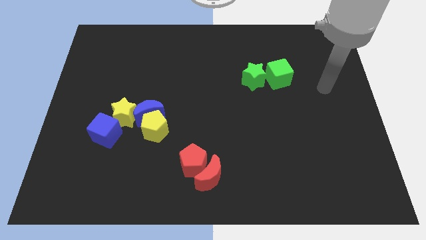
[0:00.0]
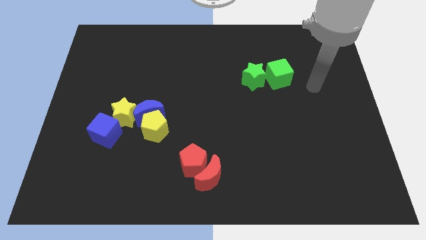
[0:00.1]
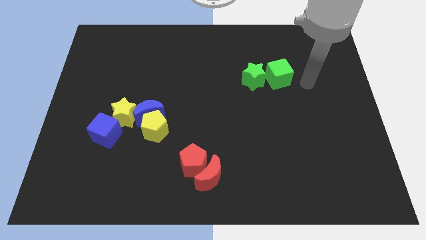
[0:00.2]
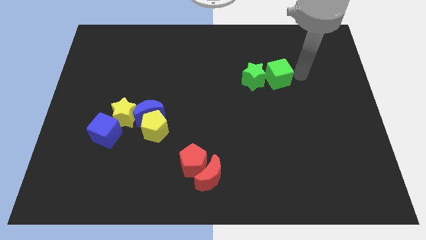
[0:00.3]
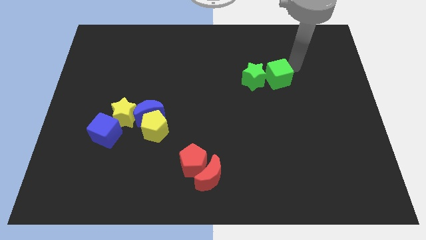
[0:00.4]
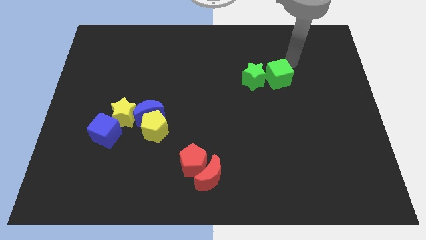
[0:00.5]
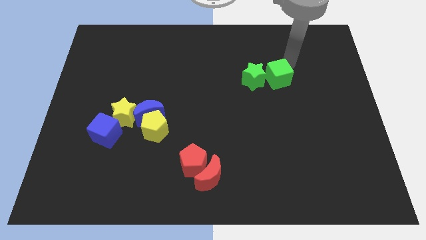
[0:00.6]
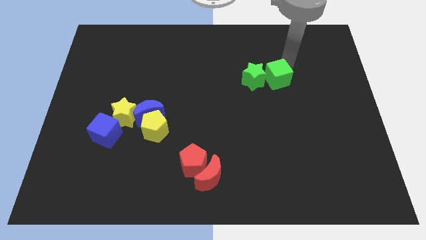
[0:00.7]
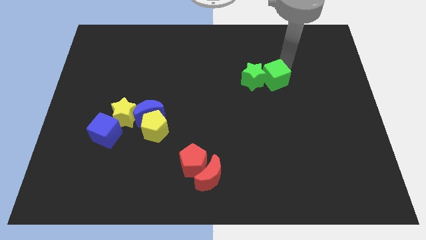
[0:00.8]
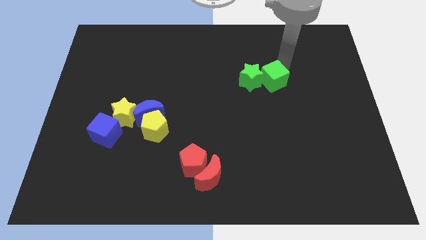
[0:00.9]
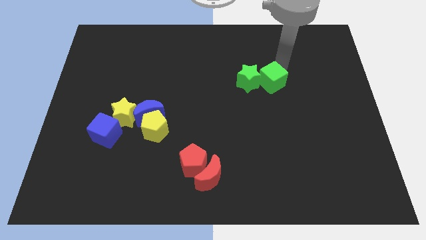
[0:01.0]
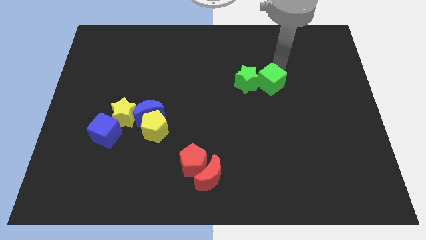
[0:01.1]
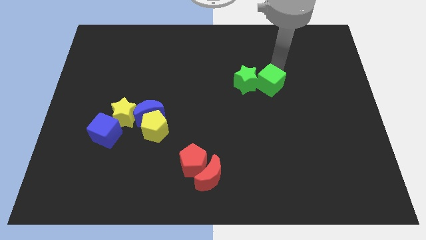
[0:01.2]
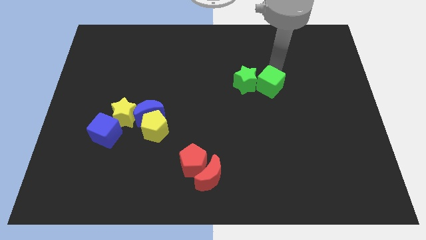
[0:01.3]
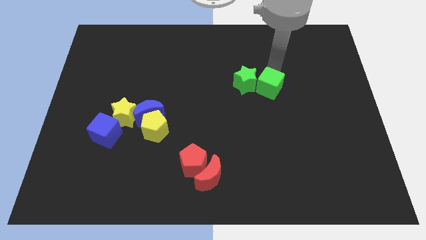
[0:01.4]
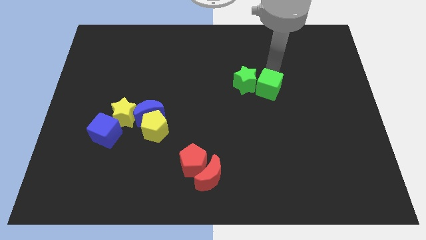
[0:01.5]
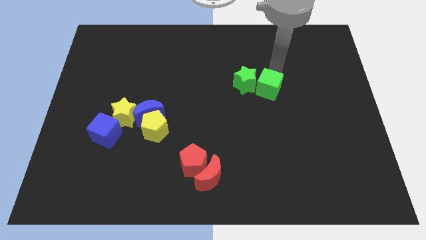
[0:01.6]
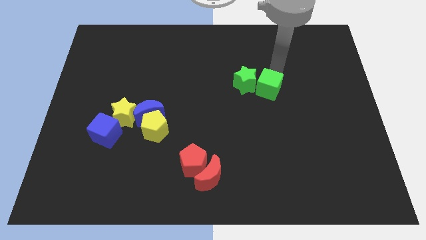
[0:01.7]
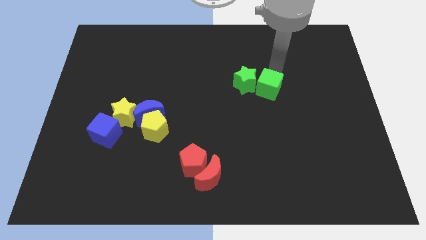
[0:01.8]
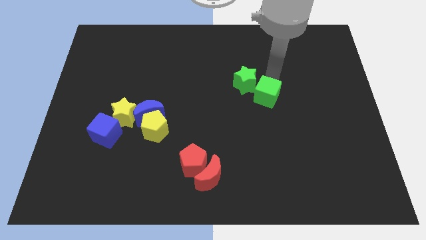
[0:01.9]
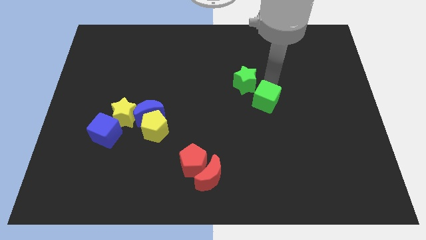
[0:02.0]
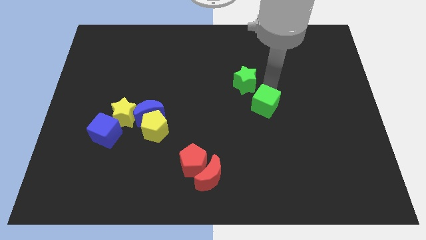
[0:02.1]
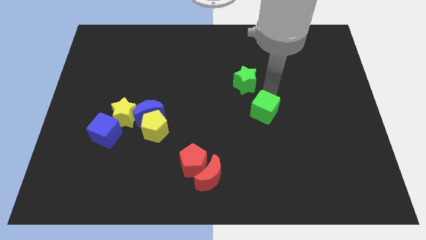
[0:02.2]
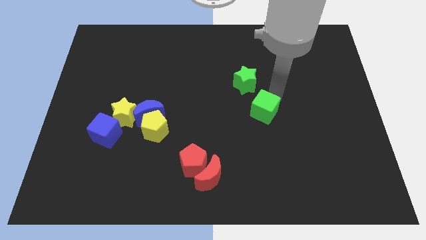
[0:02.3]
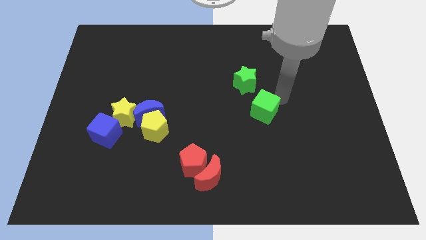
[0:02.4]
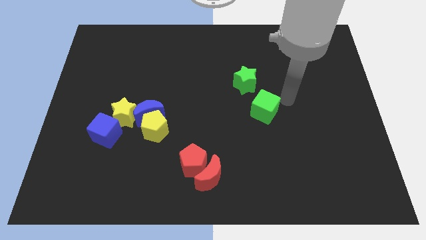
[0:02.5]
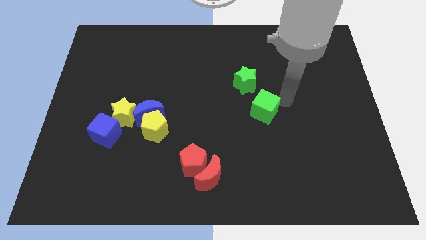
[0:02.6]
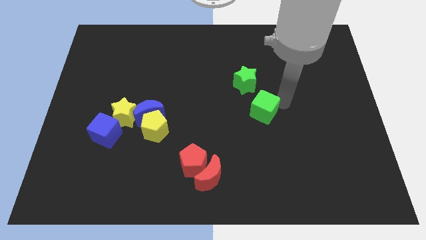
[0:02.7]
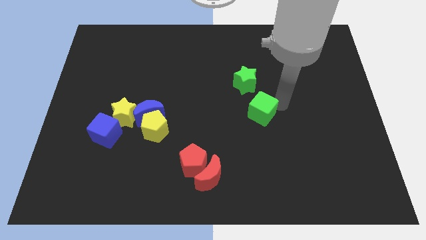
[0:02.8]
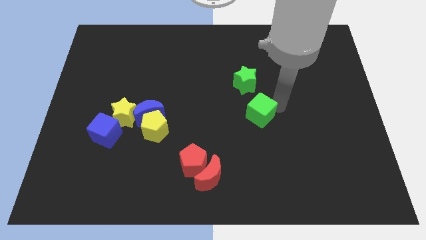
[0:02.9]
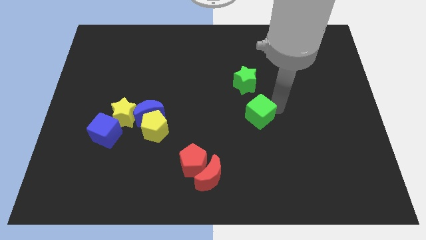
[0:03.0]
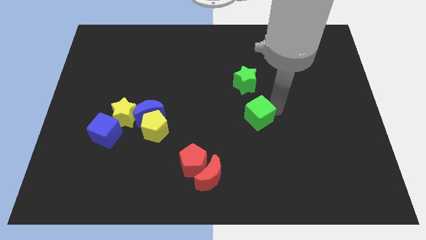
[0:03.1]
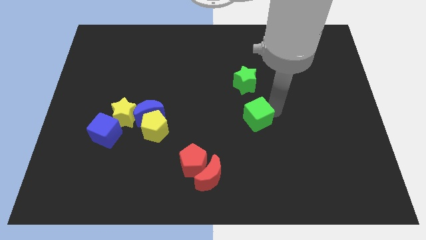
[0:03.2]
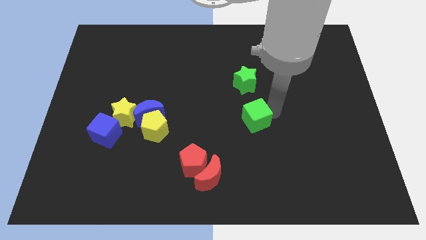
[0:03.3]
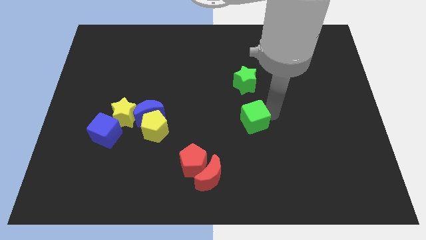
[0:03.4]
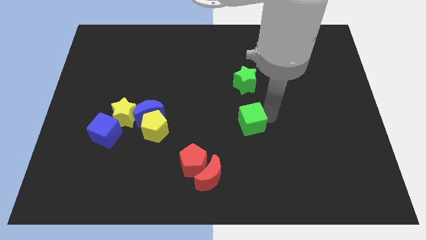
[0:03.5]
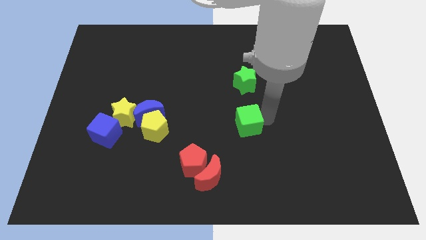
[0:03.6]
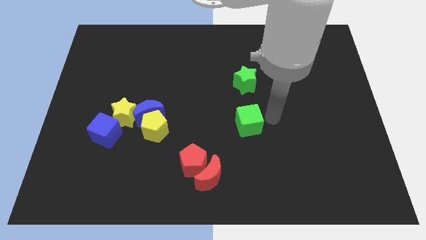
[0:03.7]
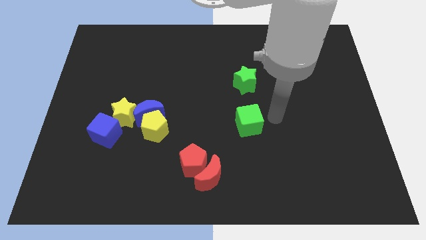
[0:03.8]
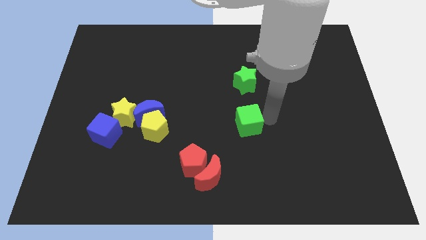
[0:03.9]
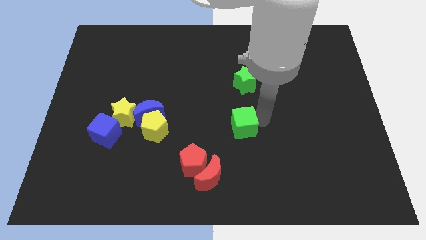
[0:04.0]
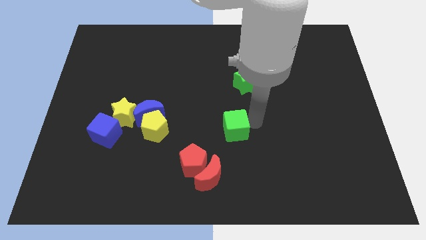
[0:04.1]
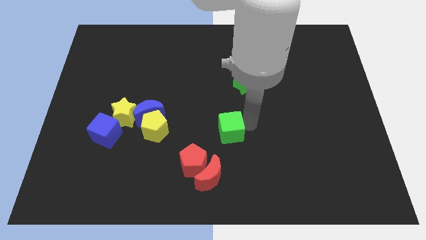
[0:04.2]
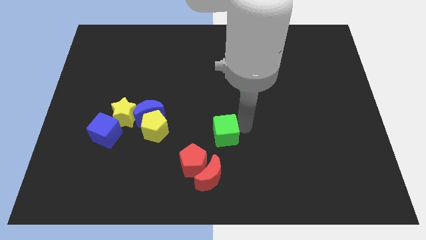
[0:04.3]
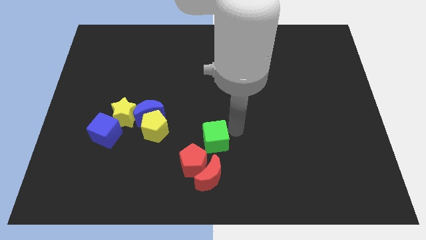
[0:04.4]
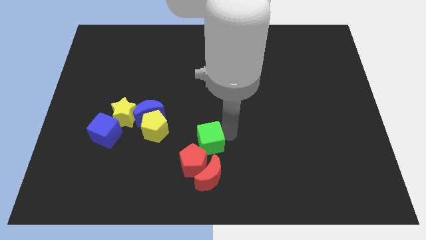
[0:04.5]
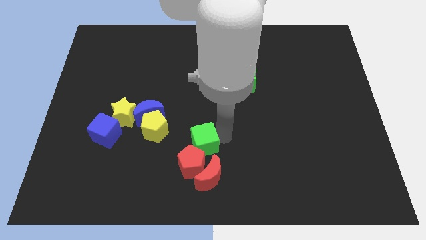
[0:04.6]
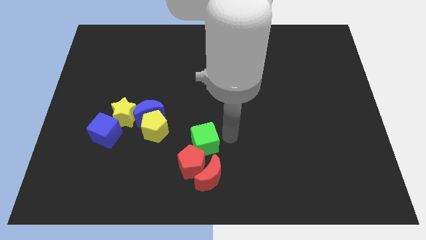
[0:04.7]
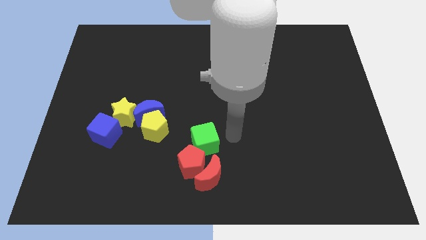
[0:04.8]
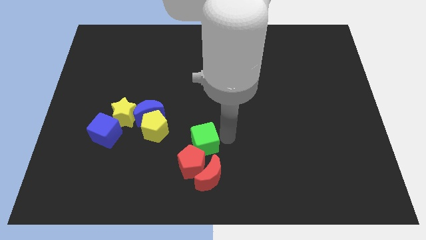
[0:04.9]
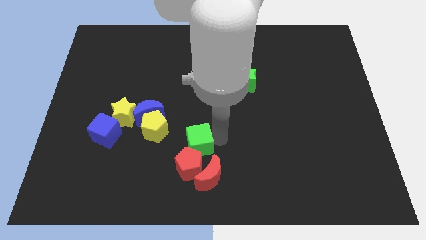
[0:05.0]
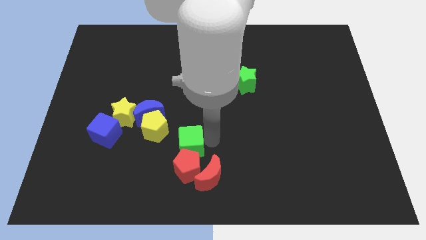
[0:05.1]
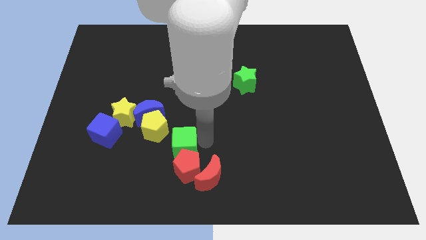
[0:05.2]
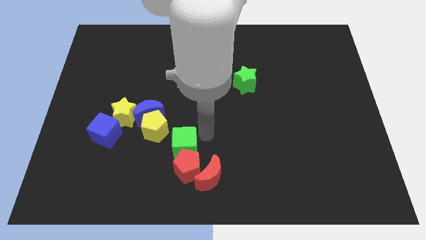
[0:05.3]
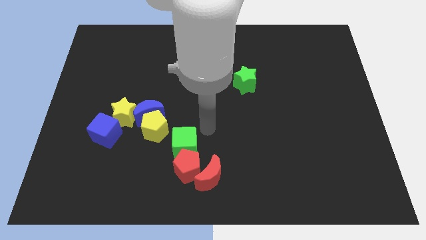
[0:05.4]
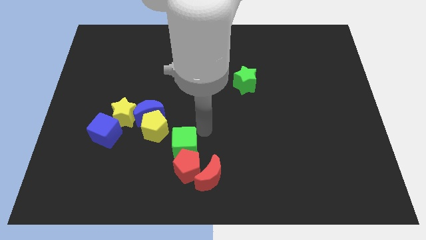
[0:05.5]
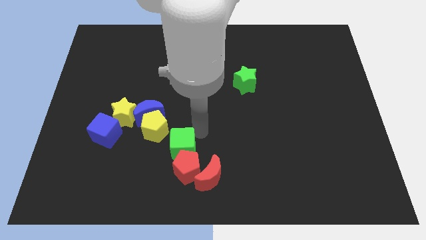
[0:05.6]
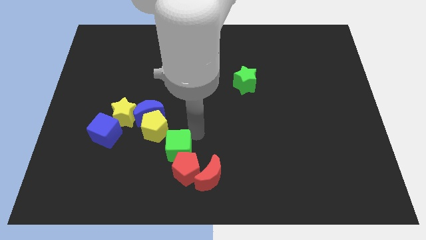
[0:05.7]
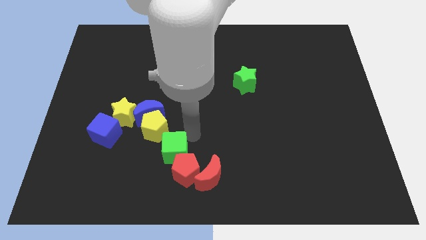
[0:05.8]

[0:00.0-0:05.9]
move the green cube below the yellow pentagon
